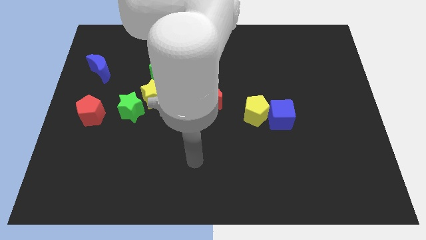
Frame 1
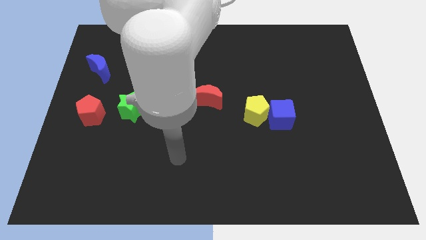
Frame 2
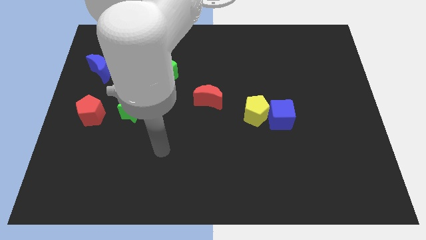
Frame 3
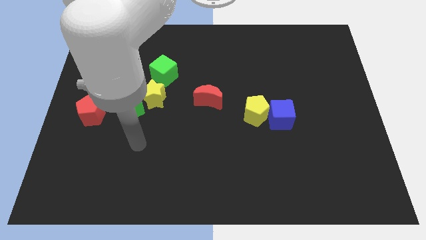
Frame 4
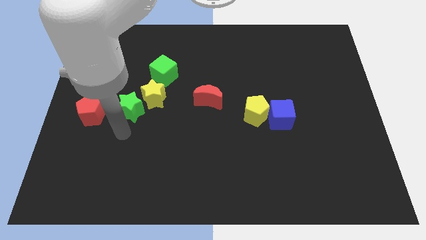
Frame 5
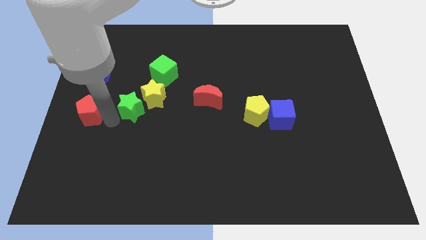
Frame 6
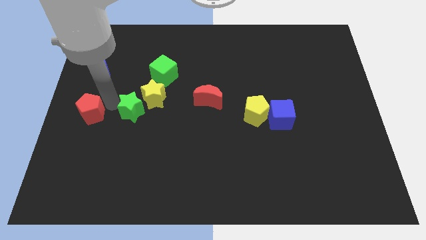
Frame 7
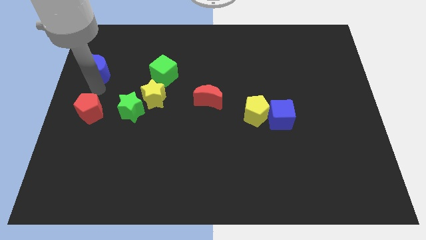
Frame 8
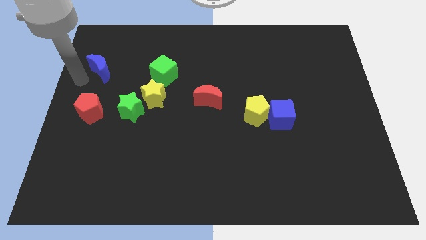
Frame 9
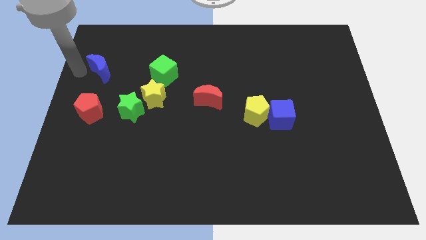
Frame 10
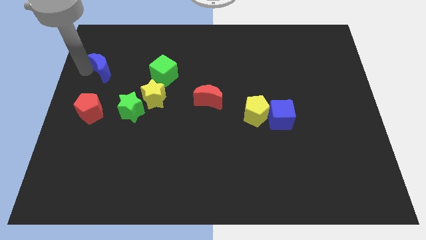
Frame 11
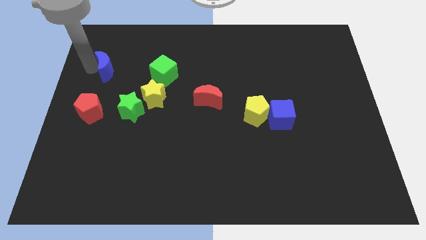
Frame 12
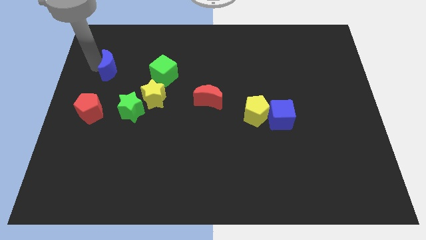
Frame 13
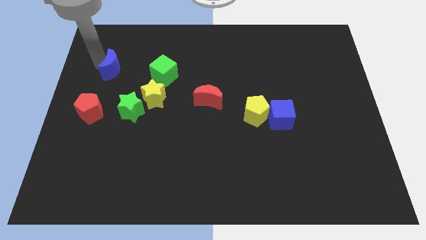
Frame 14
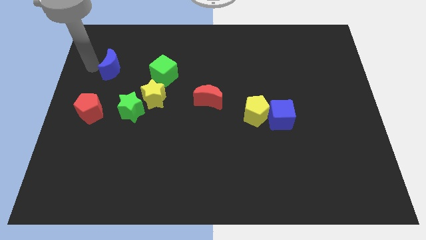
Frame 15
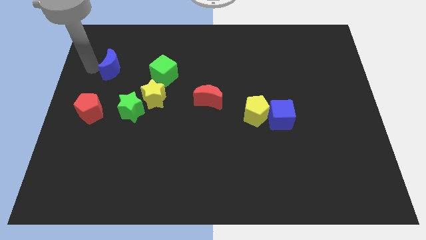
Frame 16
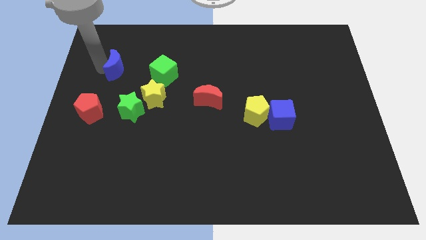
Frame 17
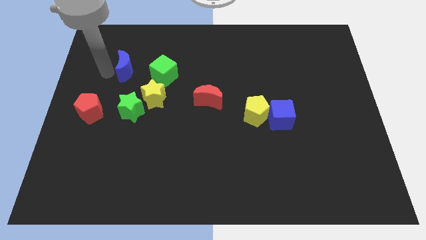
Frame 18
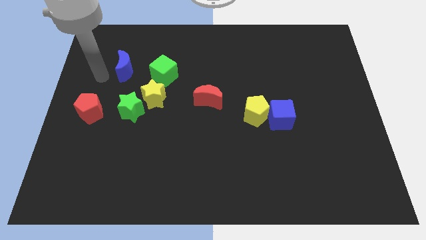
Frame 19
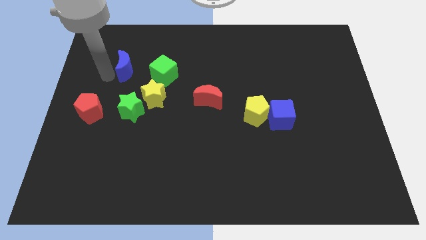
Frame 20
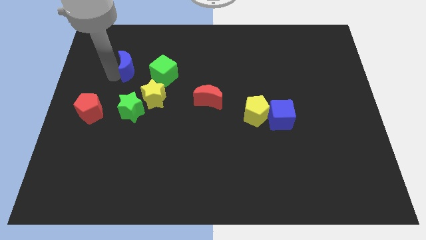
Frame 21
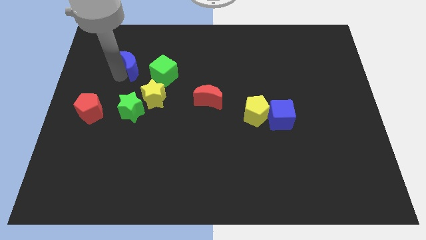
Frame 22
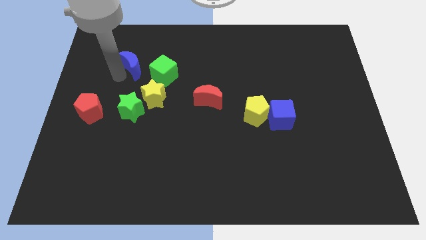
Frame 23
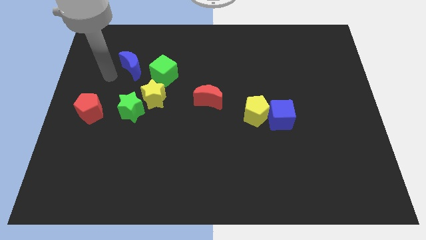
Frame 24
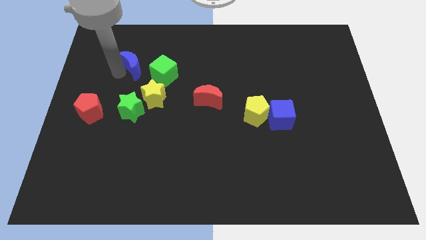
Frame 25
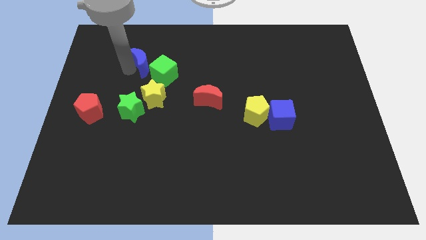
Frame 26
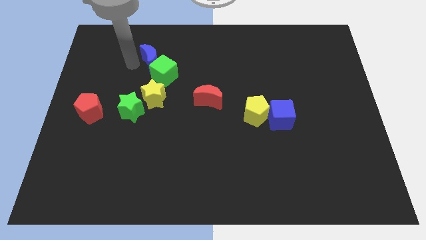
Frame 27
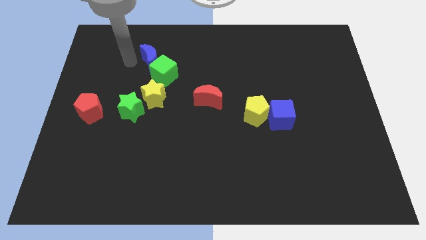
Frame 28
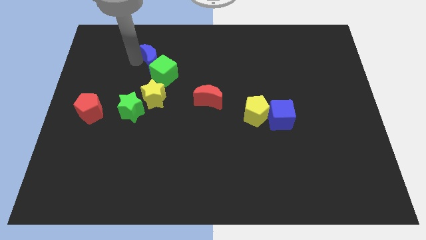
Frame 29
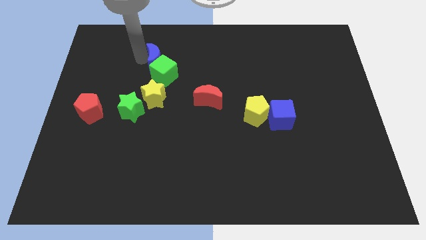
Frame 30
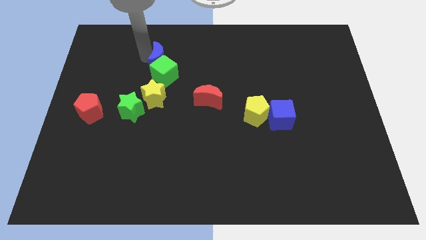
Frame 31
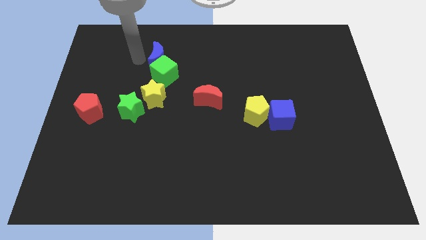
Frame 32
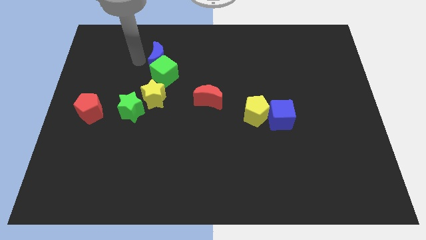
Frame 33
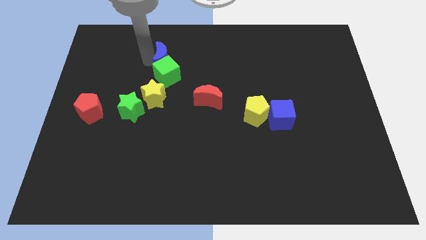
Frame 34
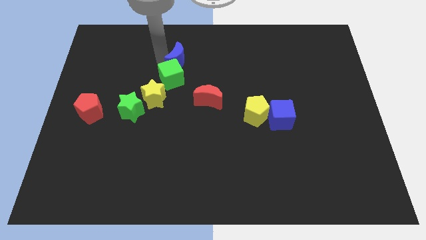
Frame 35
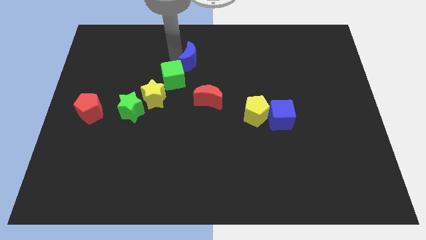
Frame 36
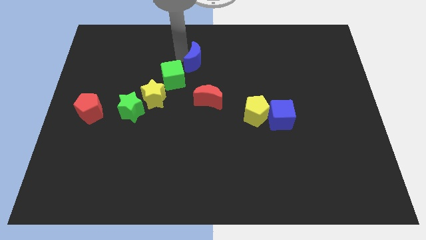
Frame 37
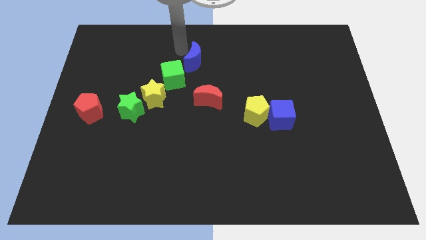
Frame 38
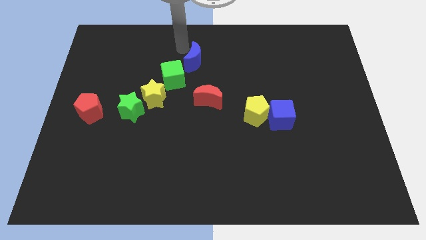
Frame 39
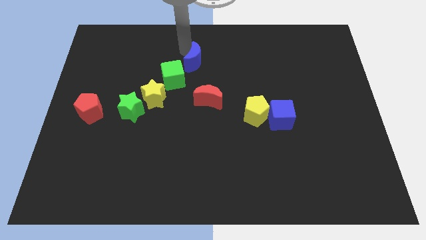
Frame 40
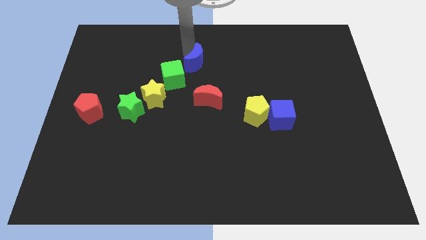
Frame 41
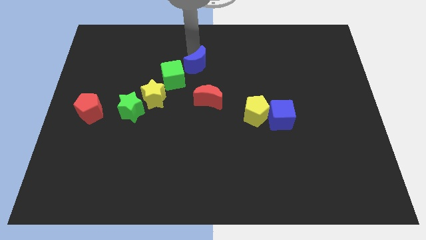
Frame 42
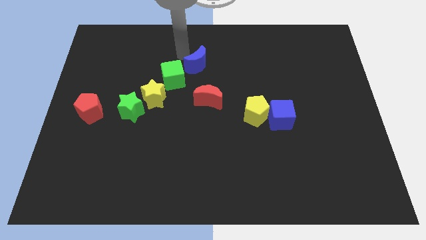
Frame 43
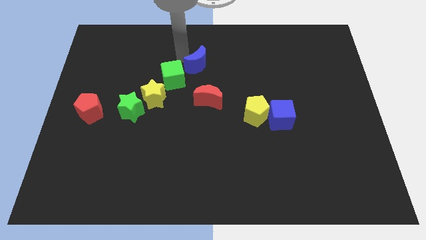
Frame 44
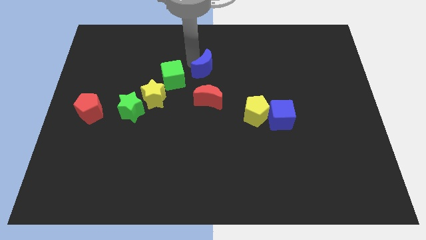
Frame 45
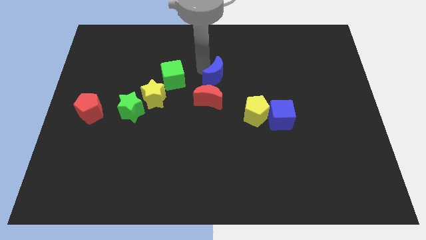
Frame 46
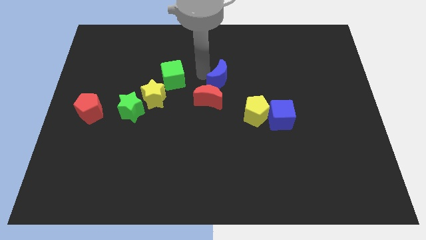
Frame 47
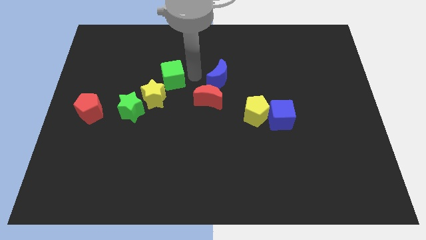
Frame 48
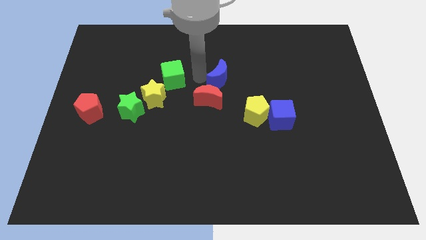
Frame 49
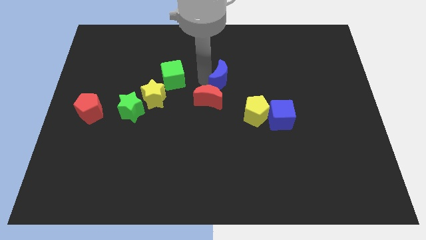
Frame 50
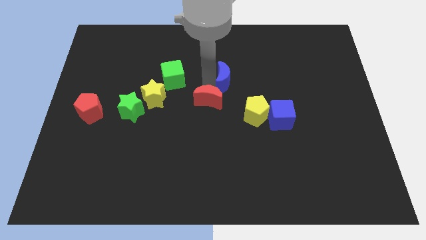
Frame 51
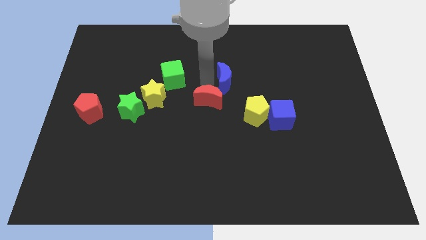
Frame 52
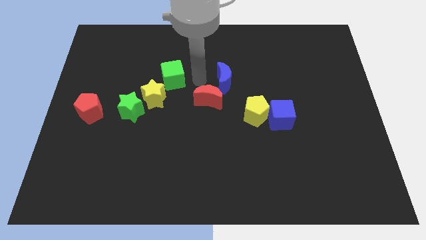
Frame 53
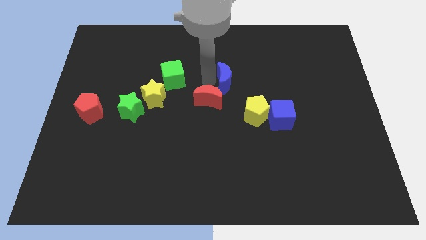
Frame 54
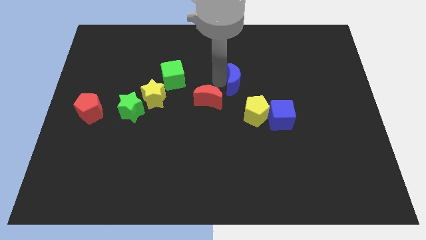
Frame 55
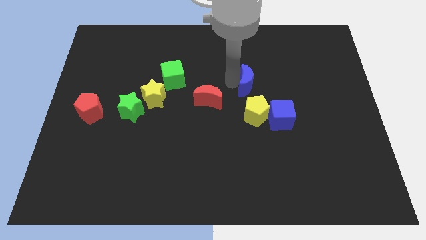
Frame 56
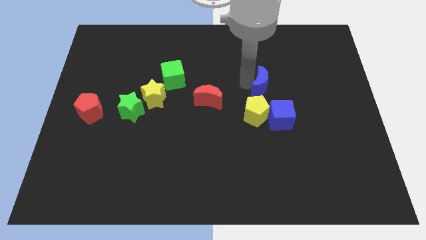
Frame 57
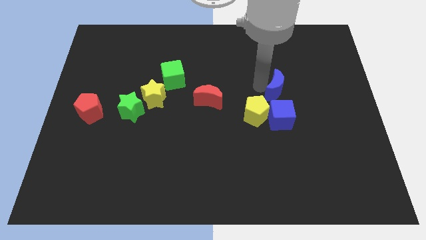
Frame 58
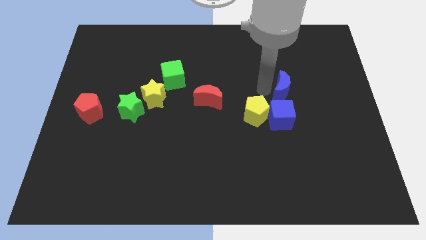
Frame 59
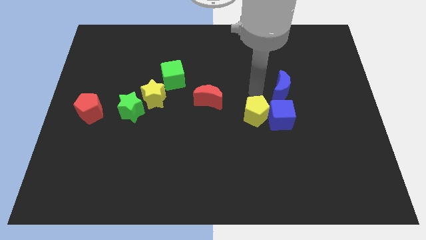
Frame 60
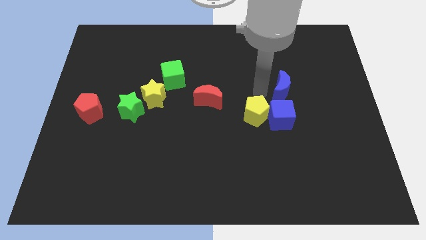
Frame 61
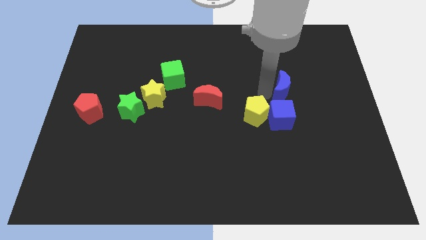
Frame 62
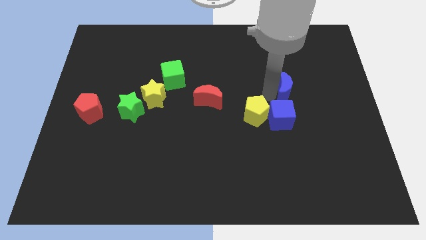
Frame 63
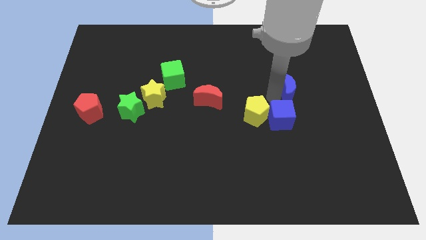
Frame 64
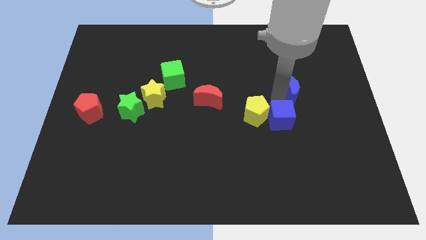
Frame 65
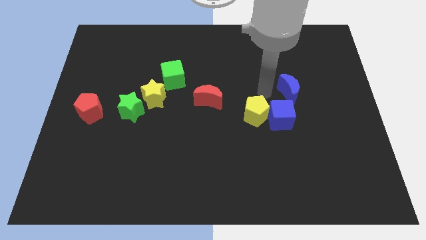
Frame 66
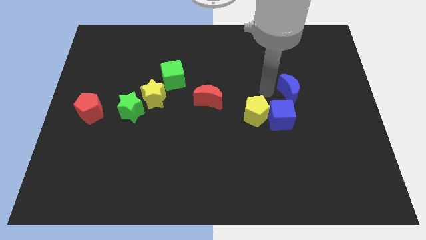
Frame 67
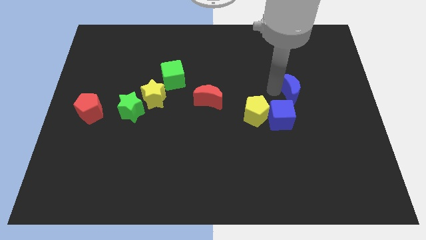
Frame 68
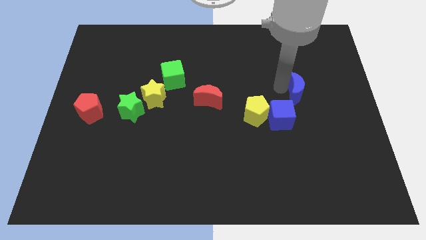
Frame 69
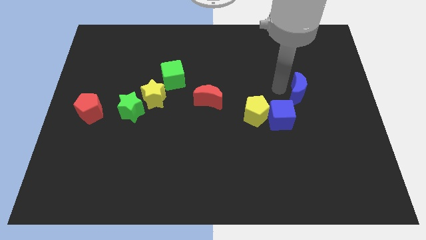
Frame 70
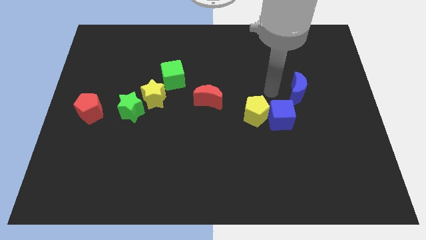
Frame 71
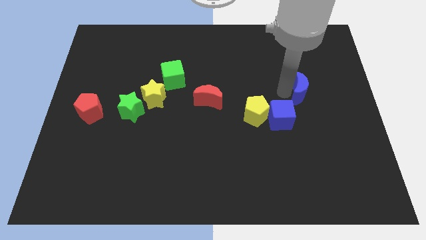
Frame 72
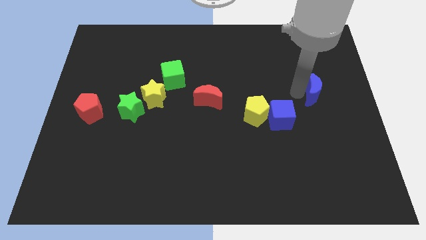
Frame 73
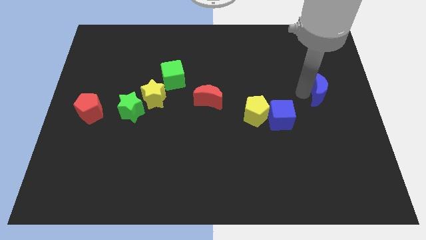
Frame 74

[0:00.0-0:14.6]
put the blue moon to the center right
